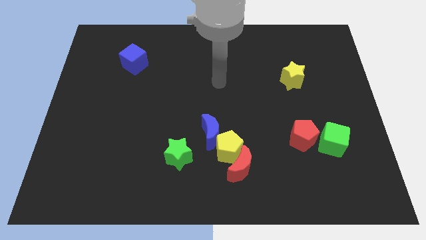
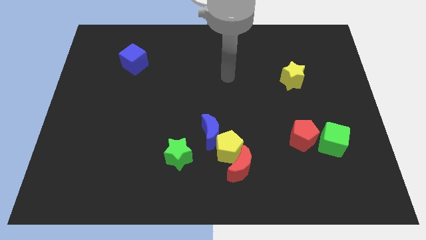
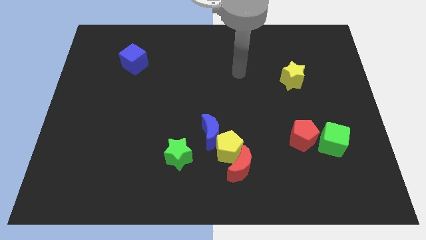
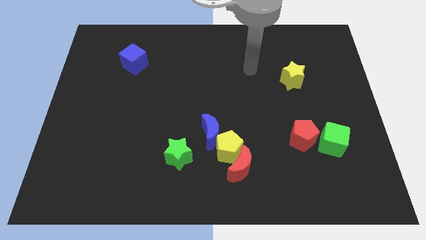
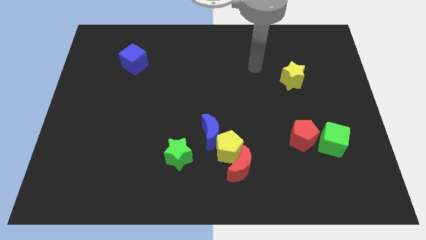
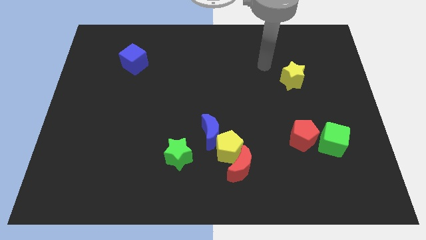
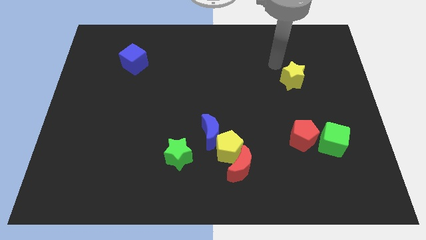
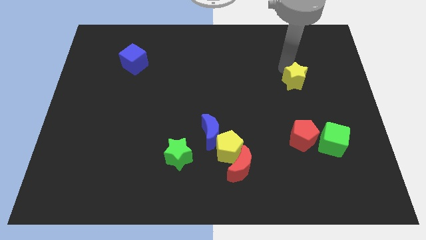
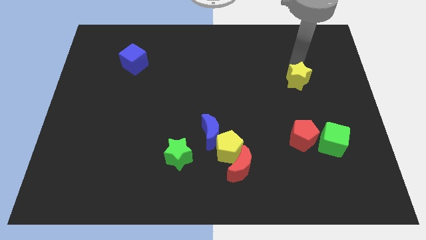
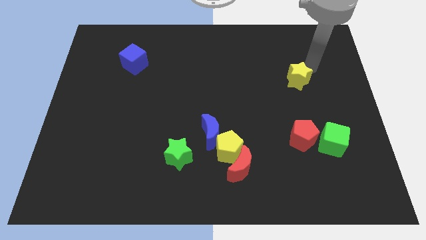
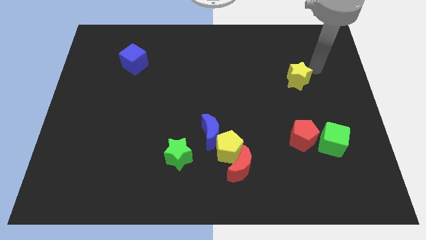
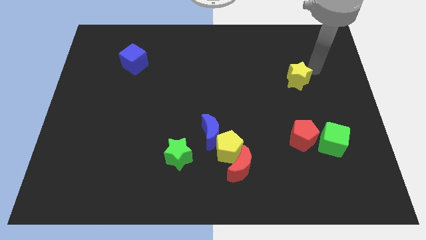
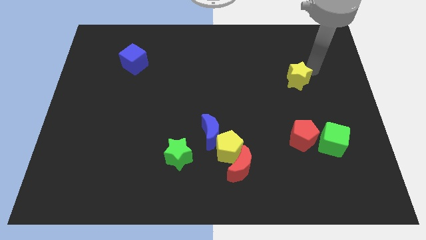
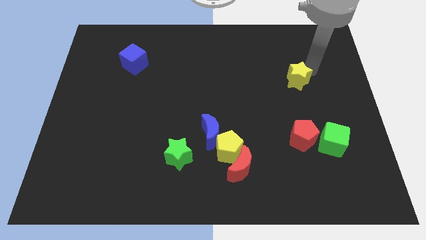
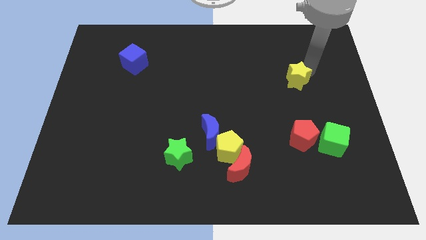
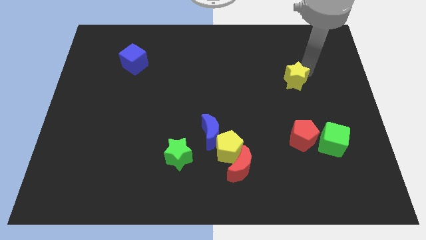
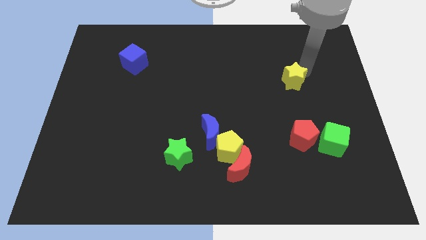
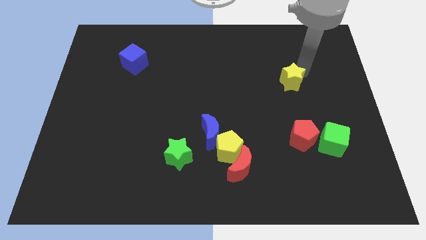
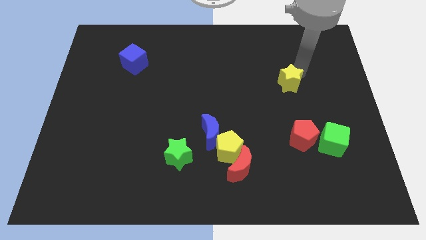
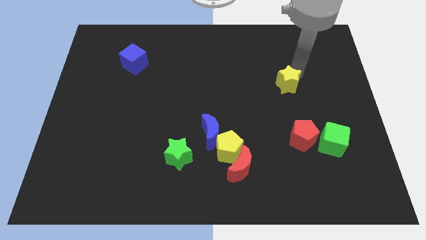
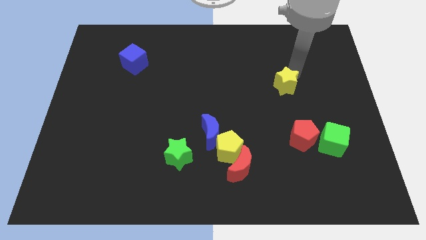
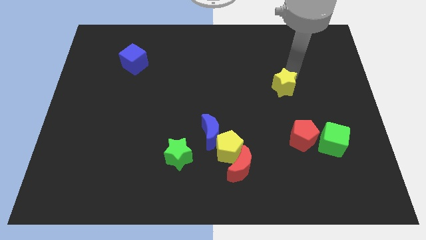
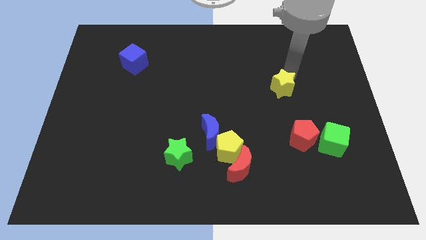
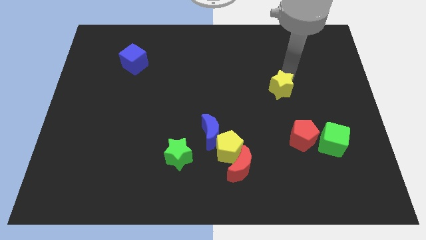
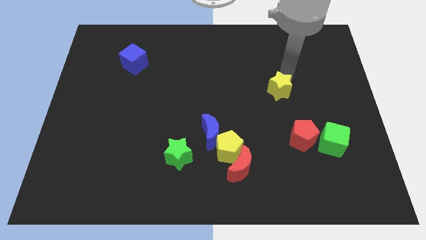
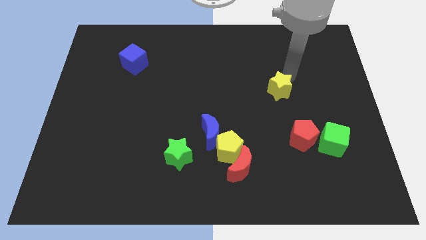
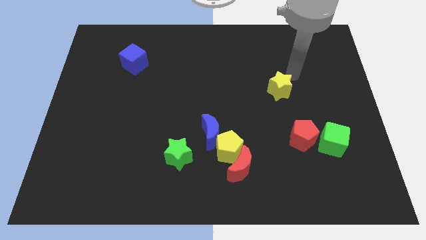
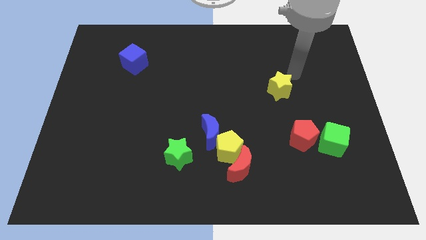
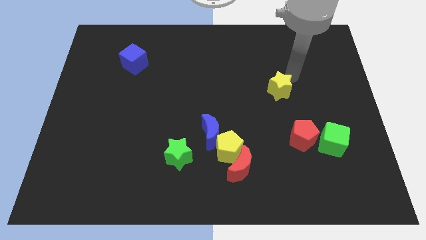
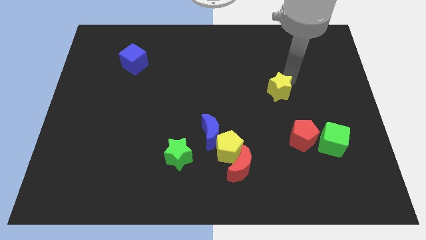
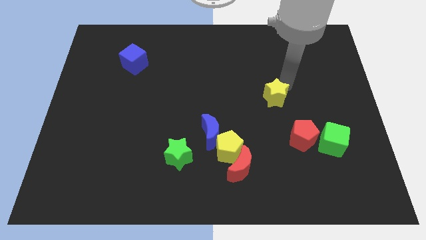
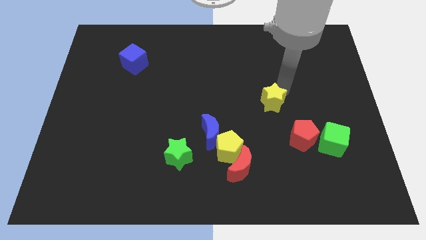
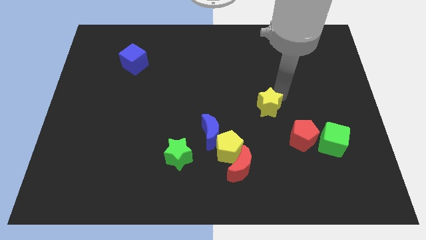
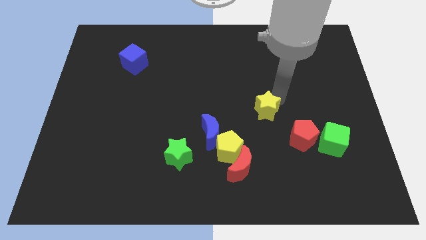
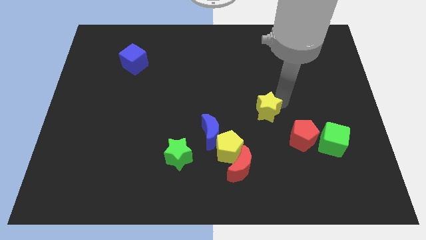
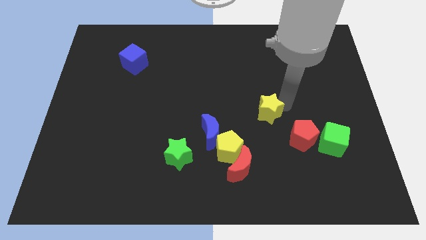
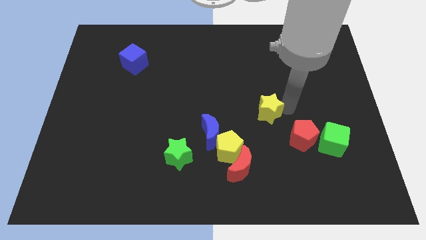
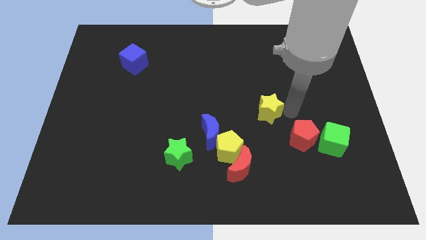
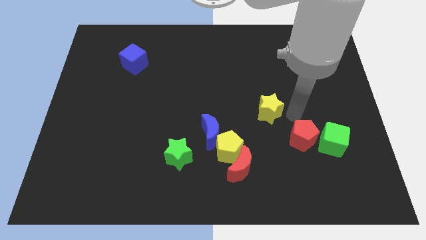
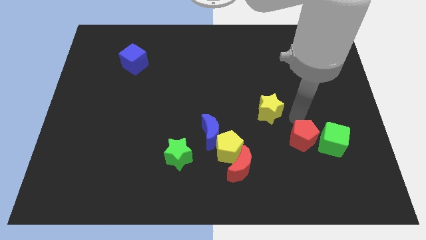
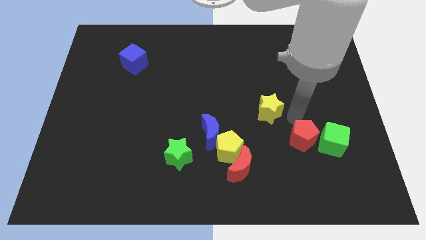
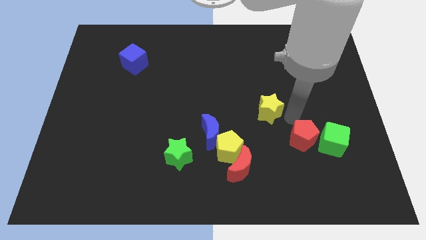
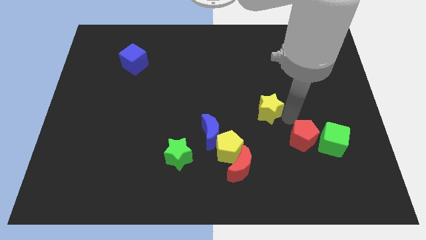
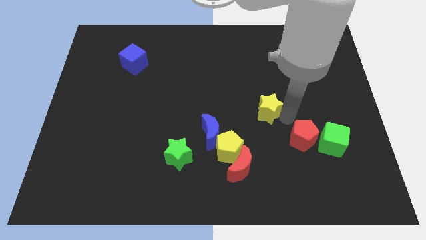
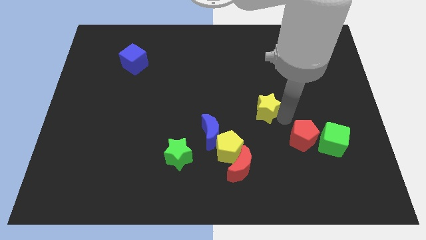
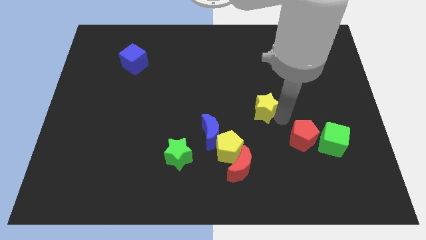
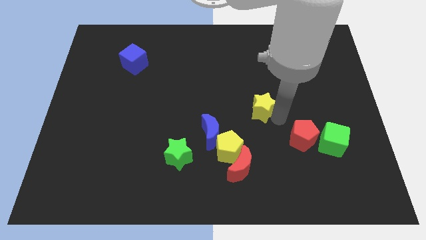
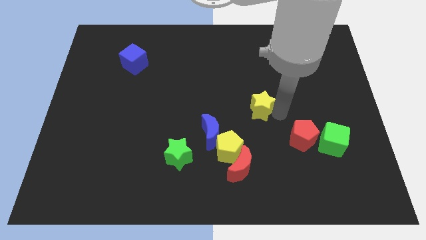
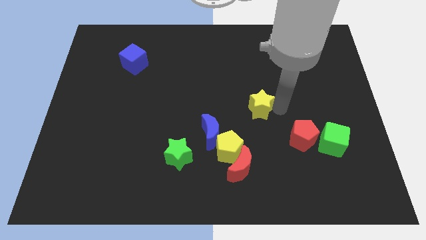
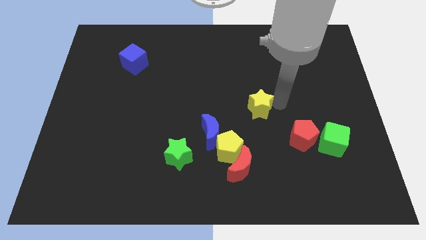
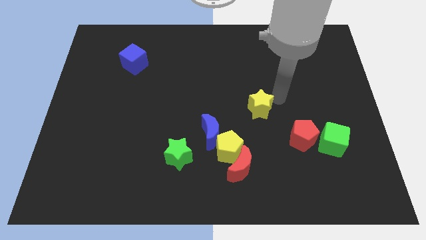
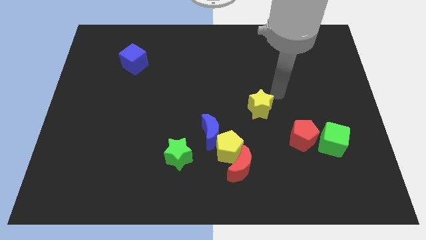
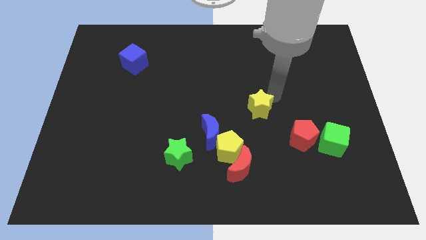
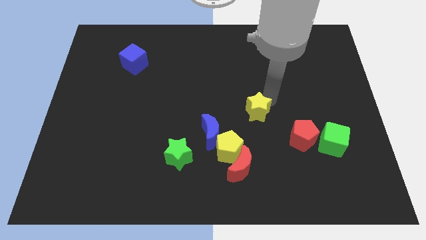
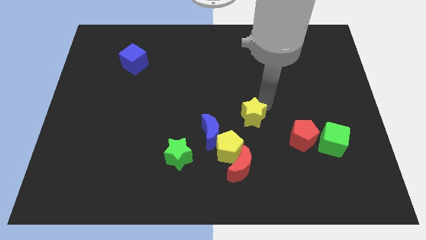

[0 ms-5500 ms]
move the yellow star above the red moon

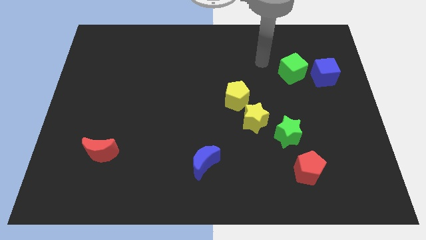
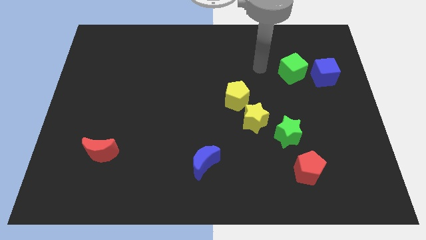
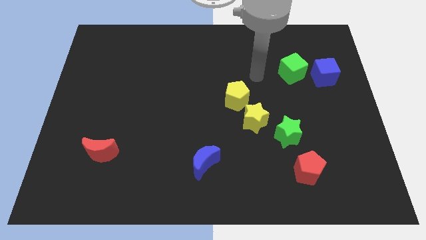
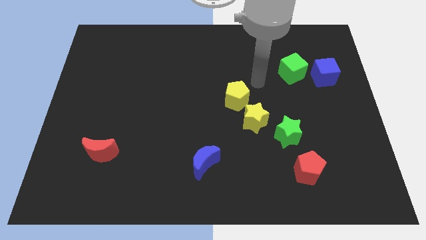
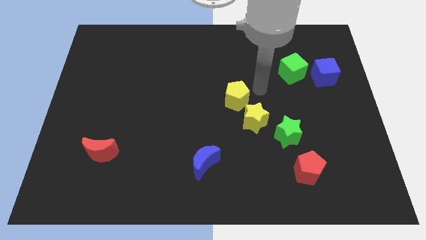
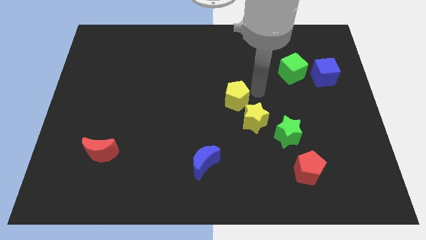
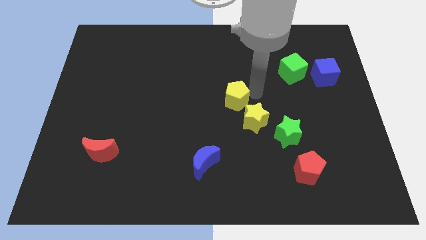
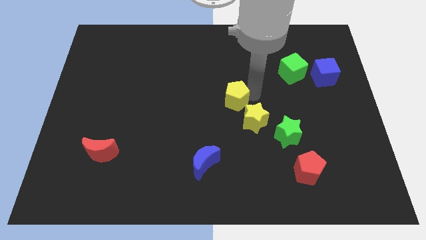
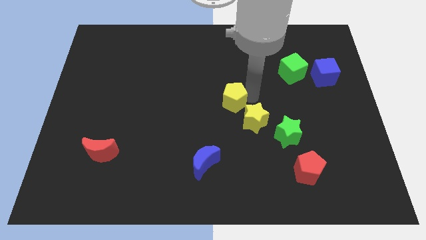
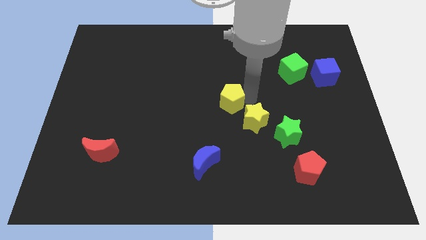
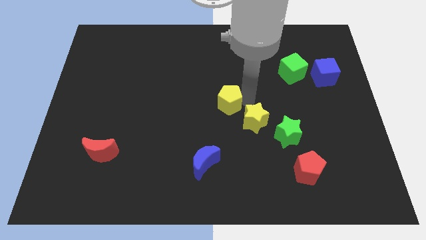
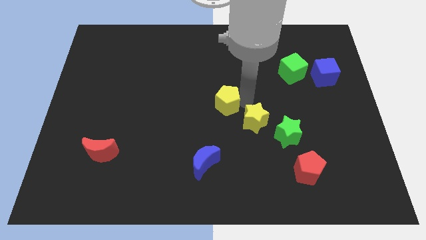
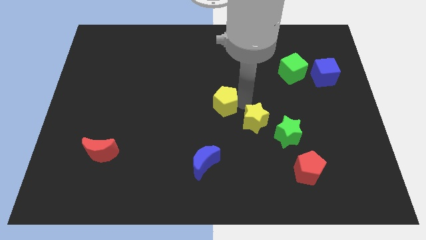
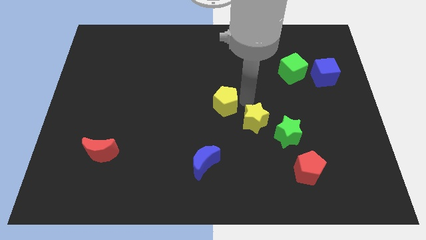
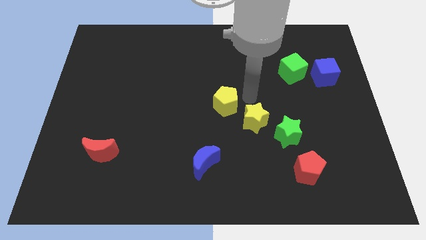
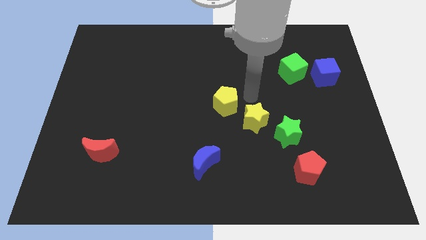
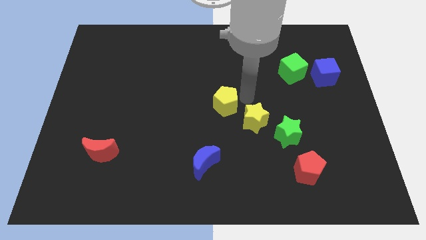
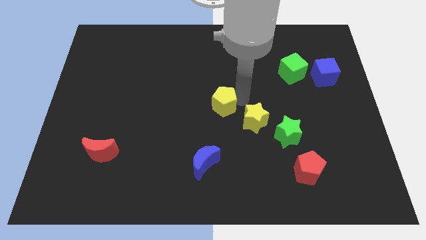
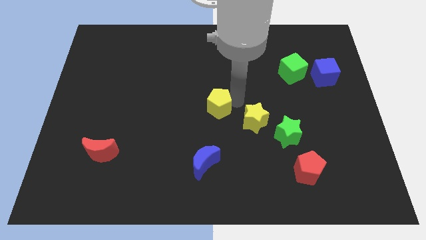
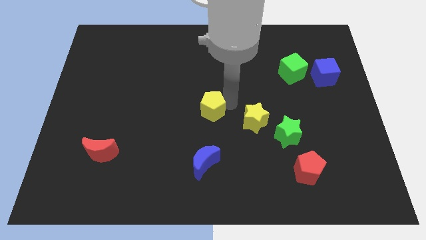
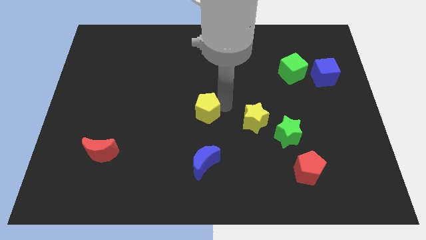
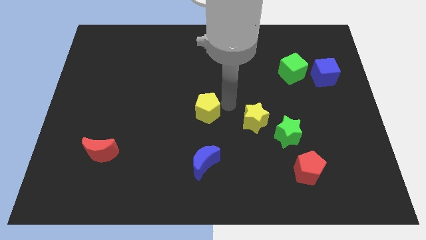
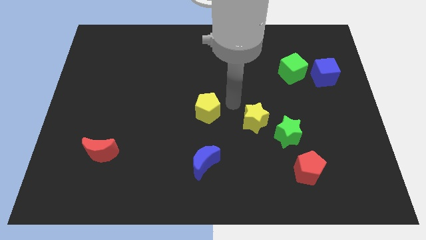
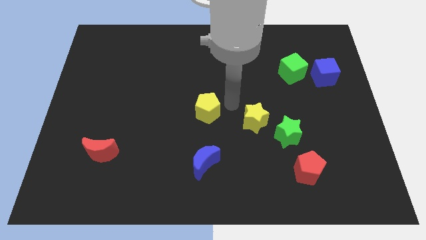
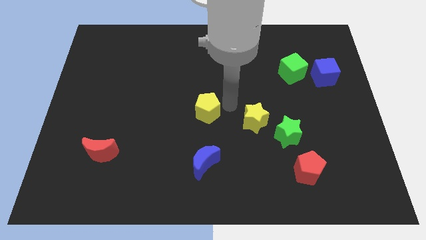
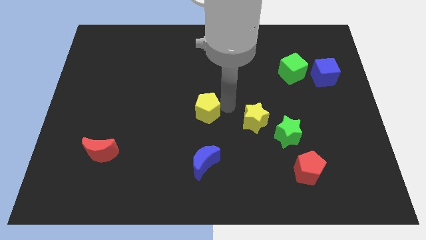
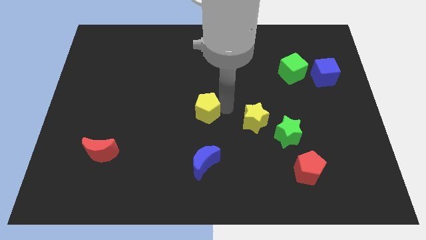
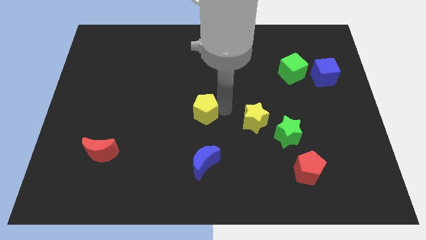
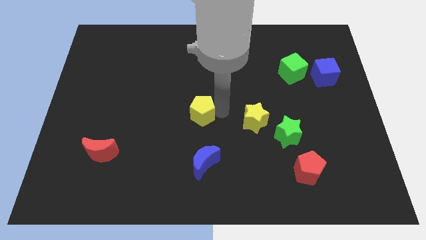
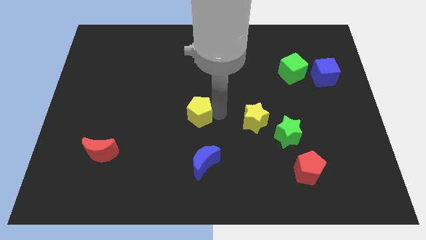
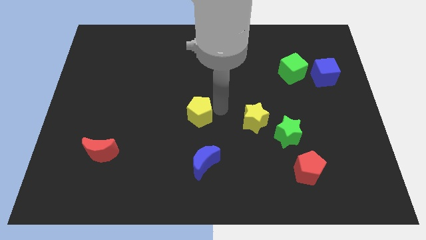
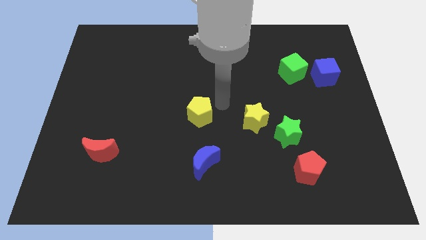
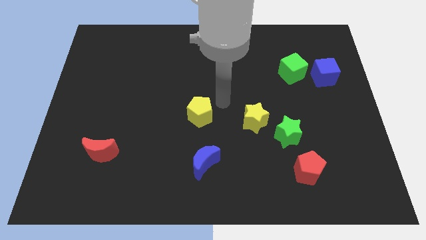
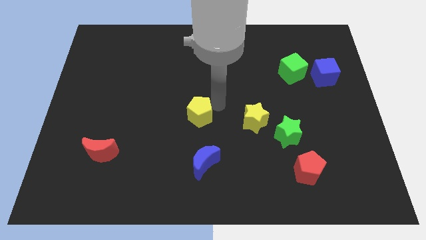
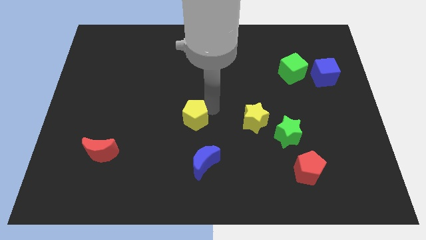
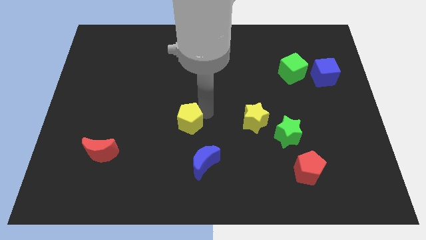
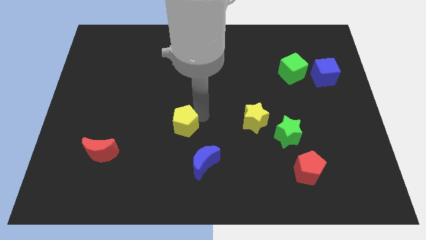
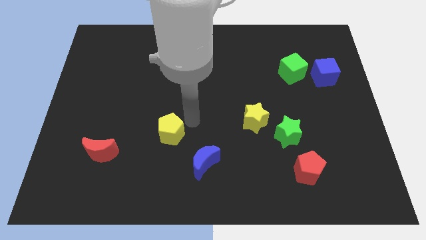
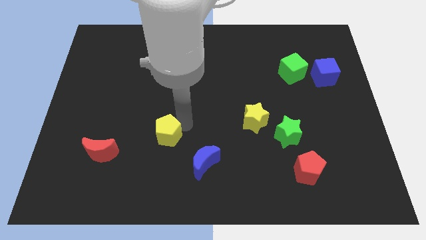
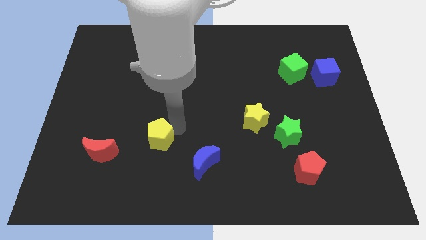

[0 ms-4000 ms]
slide the yellow pentagon right of the red moon
